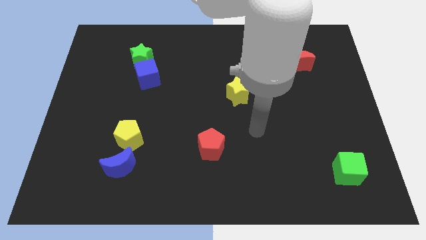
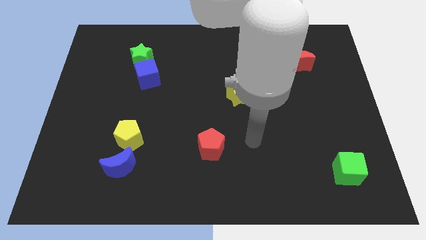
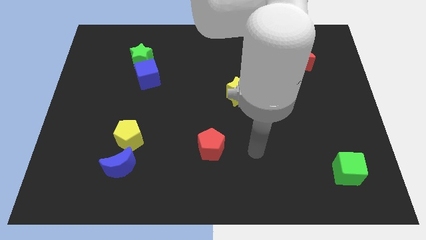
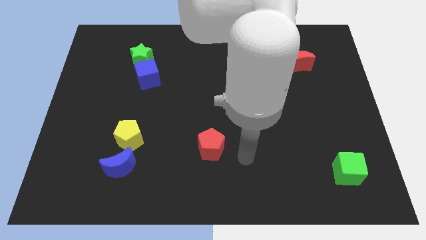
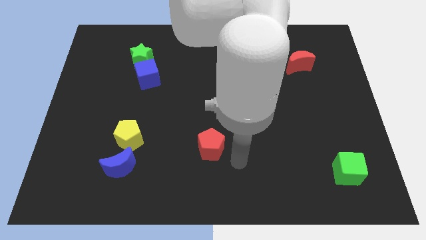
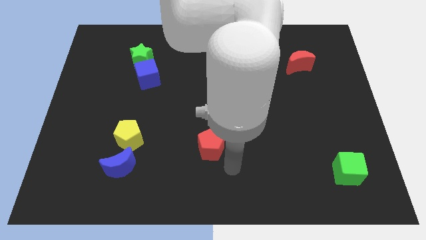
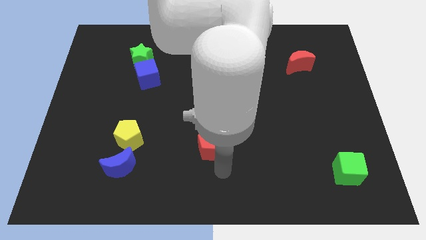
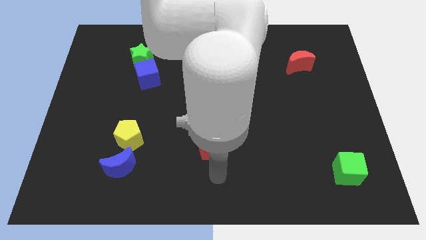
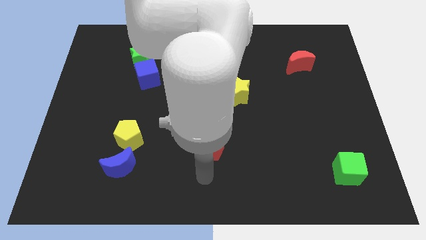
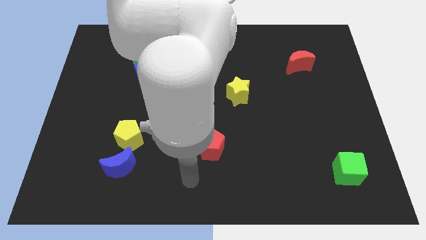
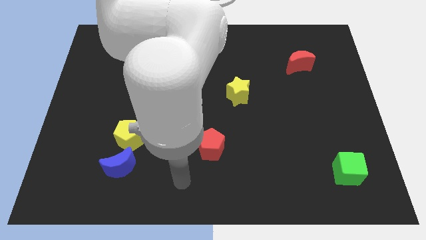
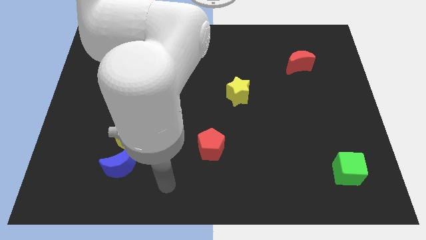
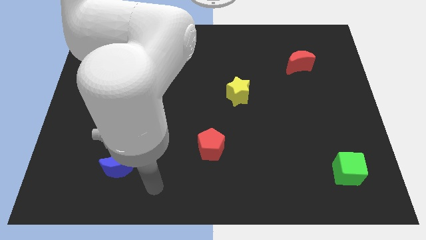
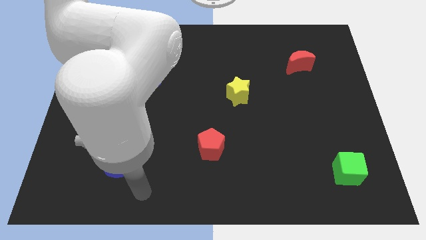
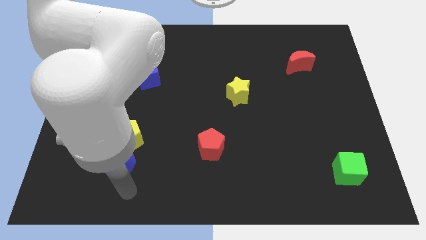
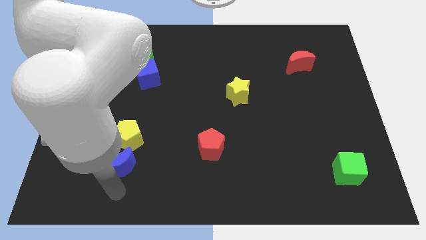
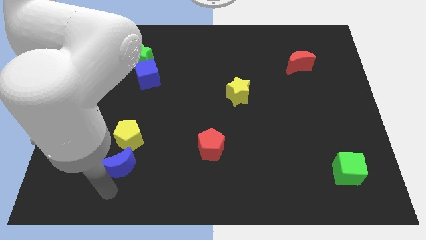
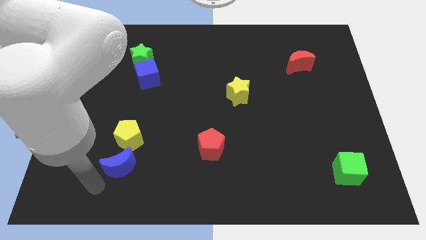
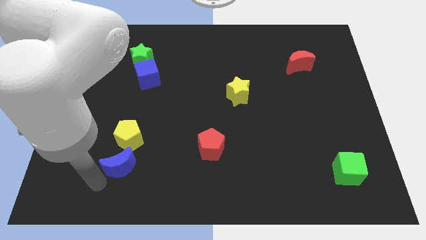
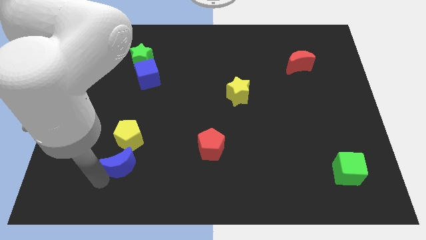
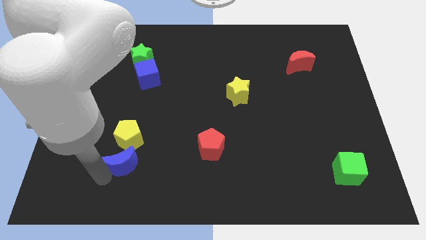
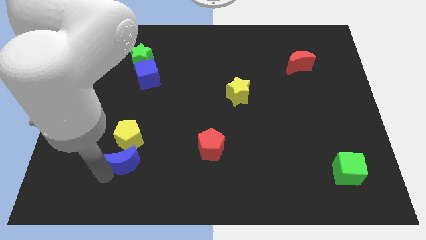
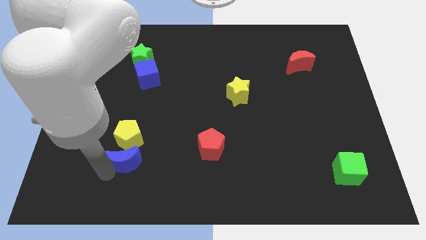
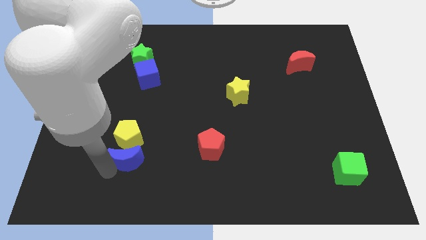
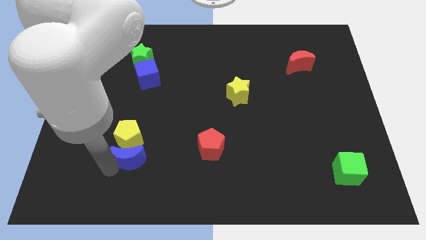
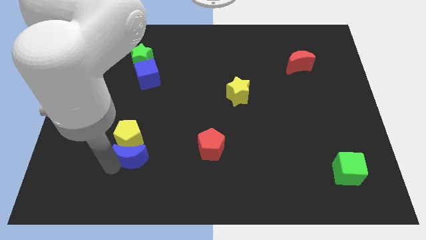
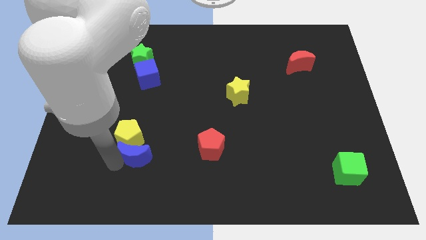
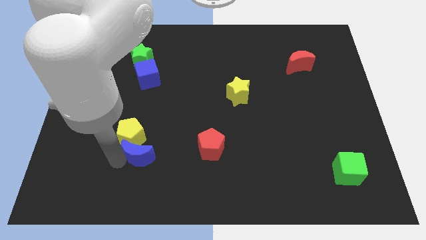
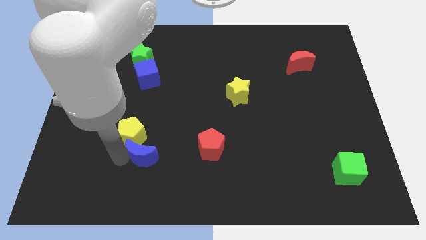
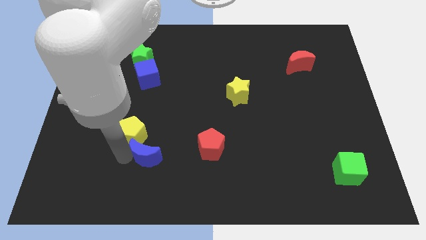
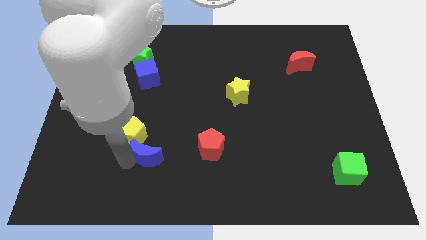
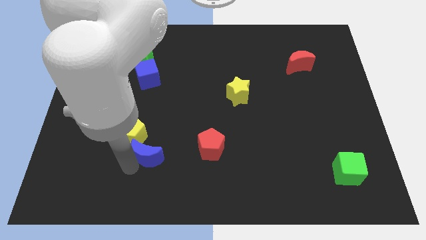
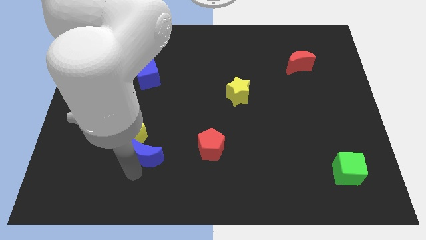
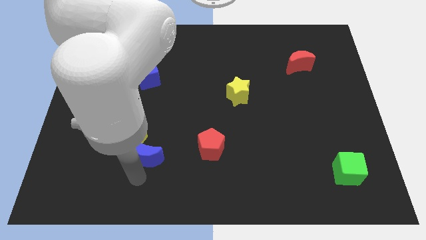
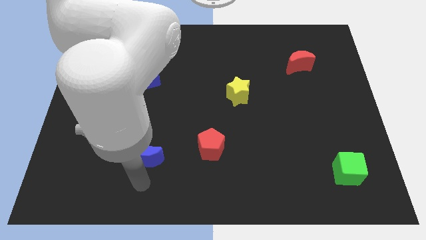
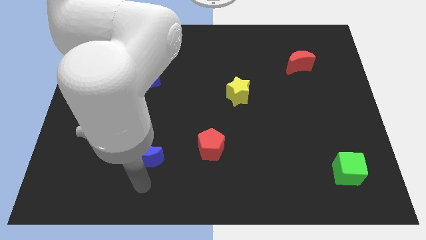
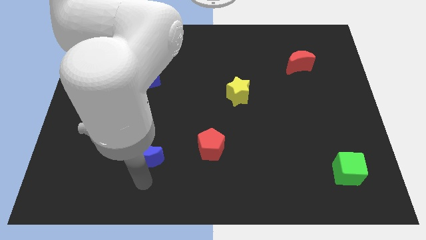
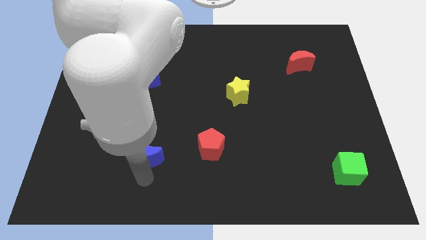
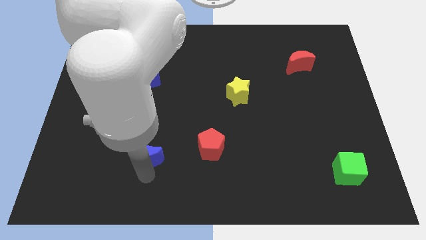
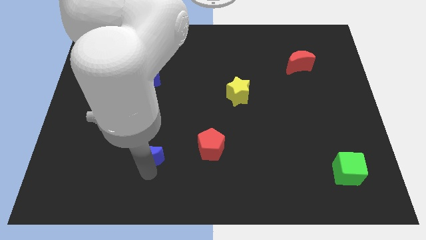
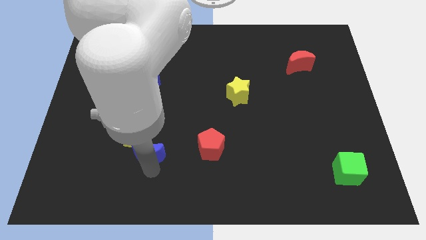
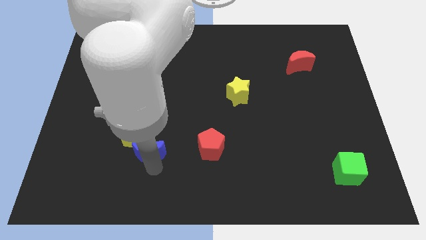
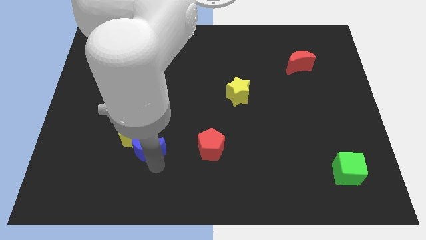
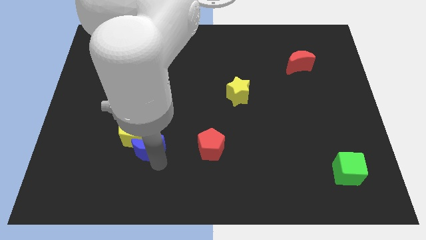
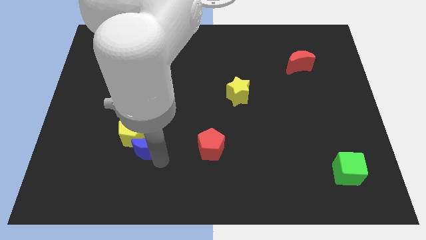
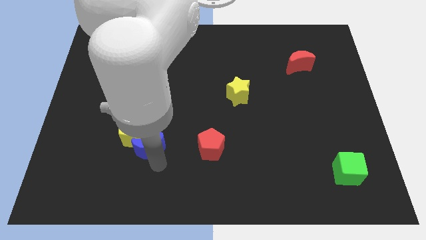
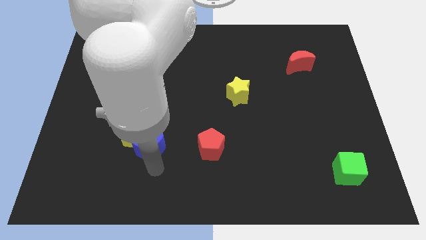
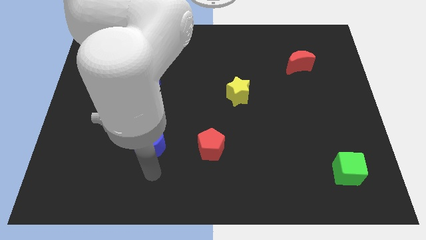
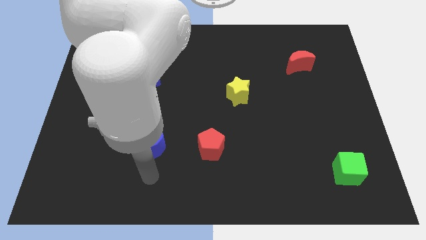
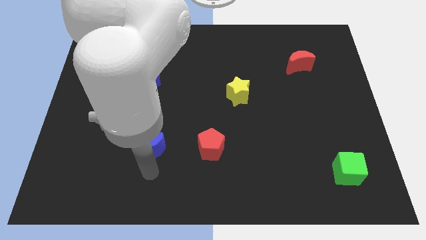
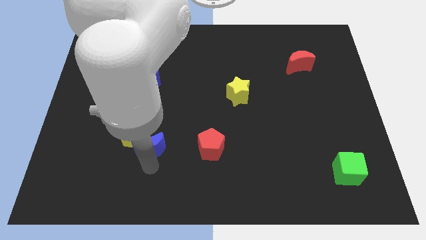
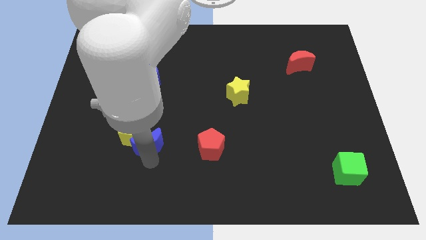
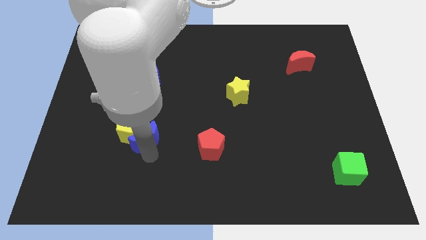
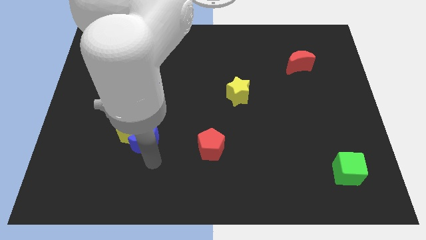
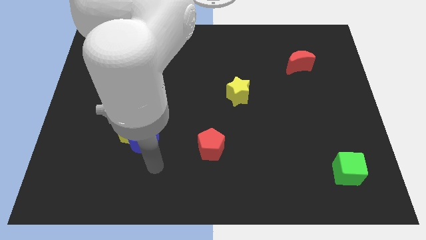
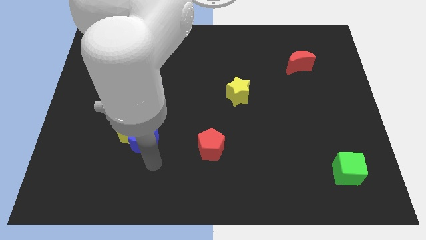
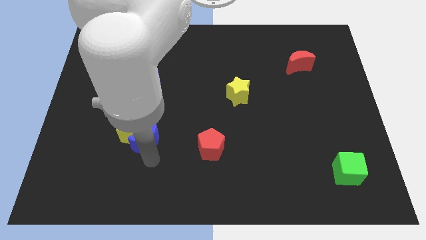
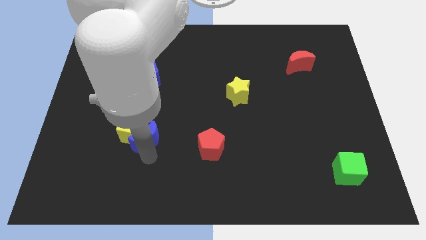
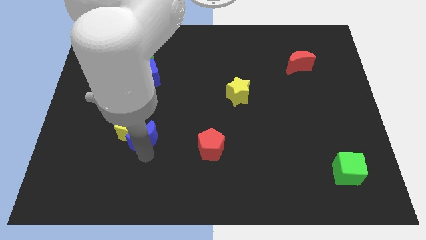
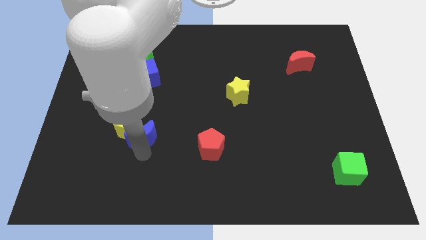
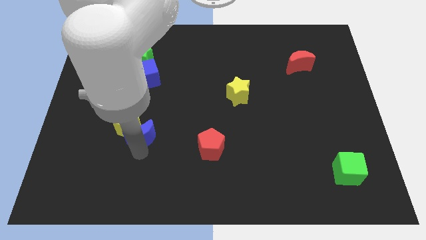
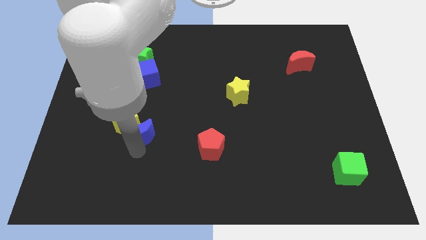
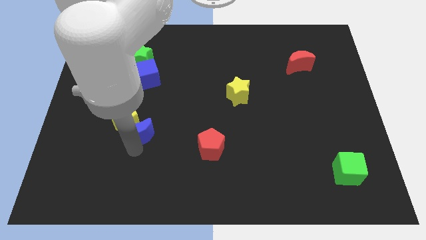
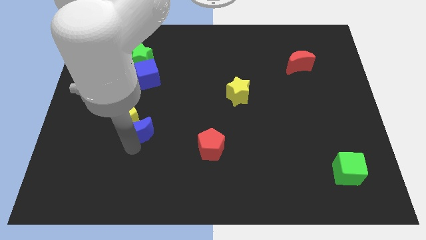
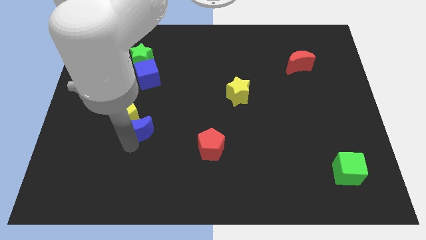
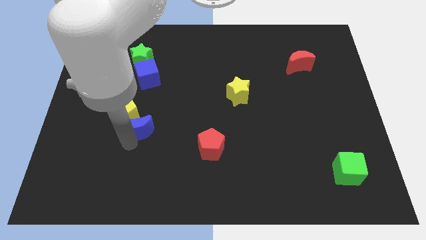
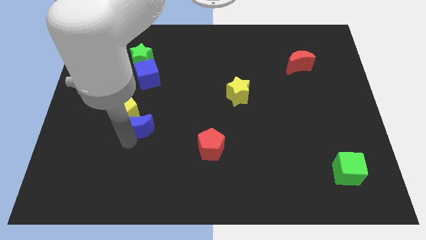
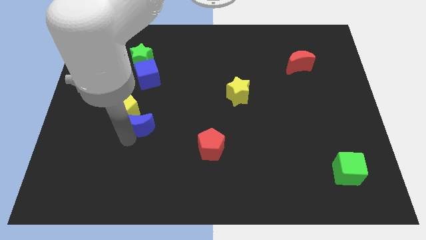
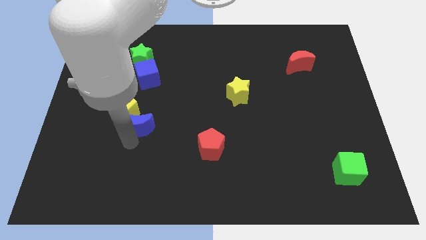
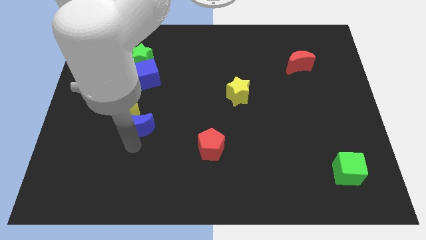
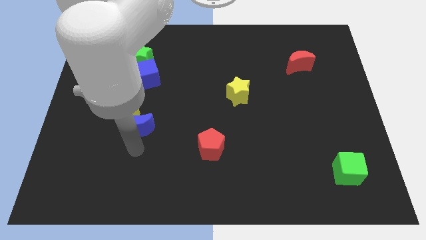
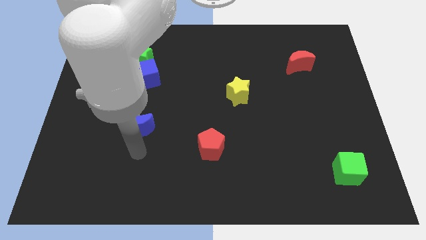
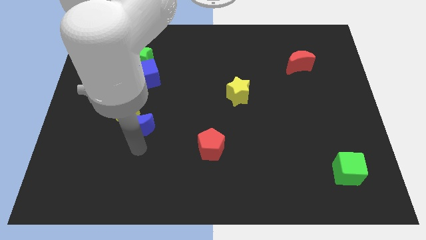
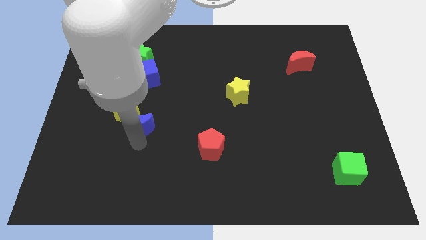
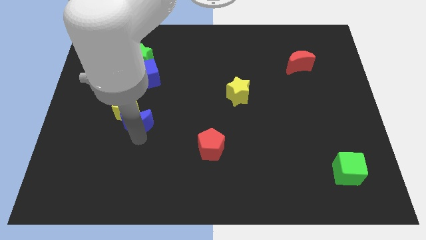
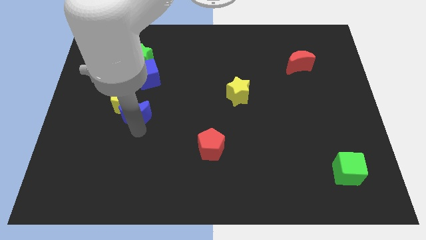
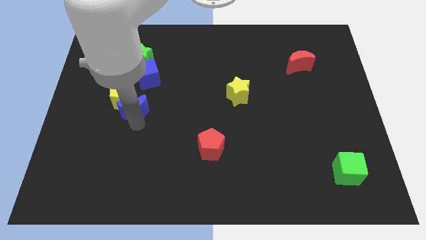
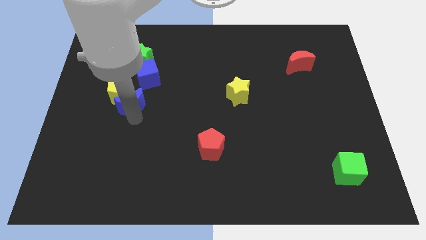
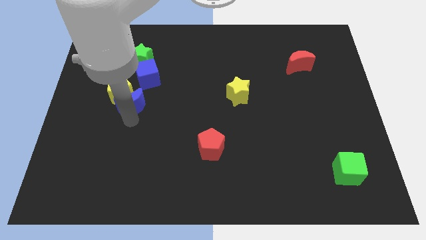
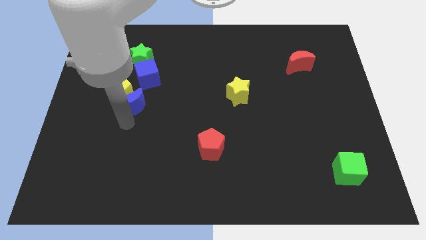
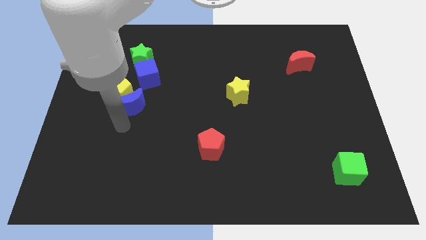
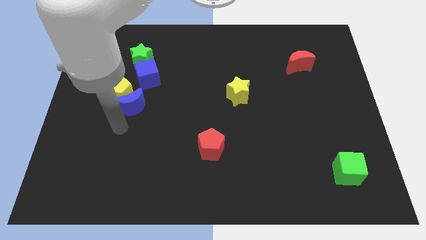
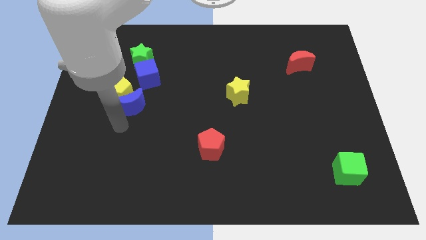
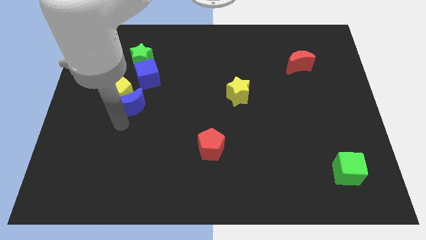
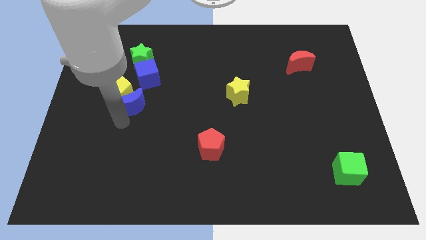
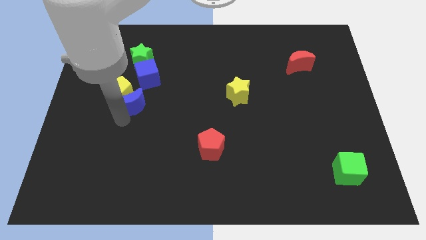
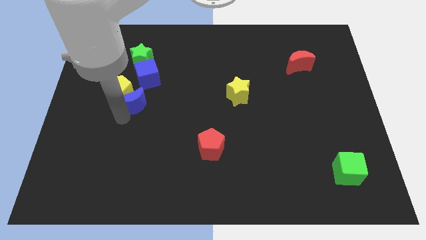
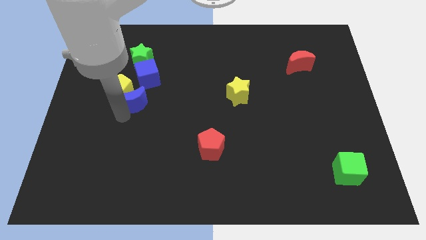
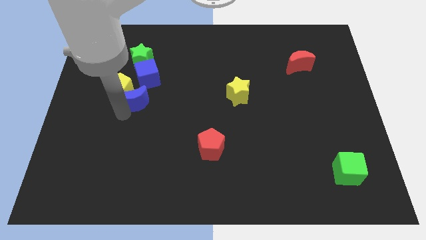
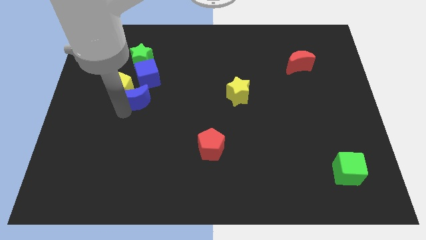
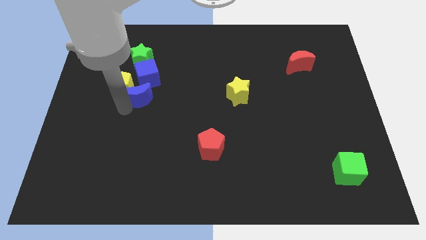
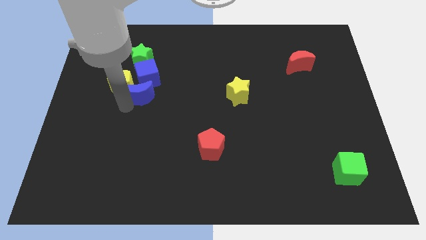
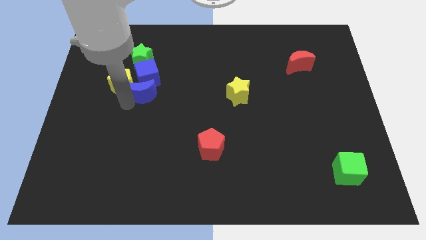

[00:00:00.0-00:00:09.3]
put the blue moon to the blue cube
